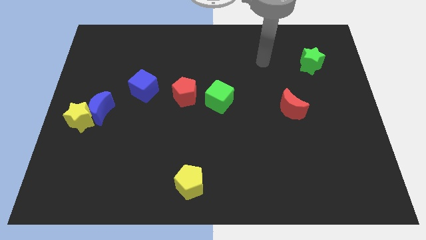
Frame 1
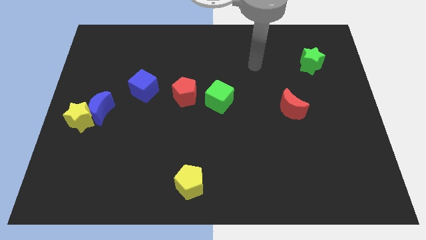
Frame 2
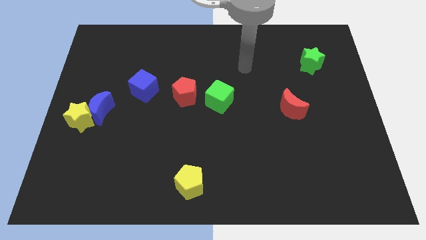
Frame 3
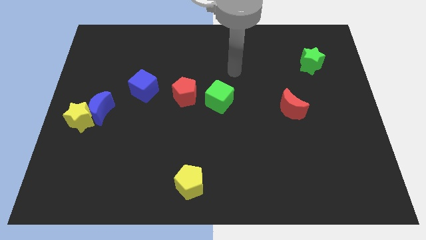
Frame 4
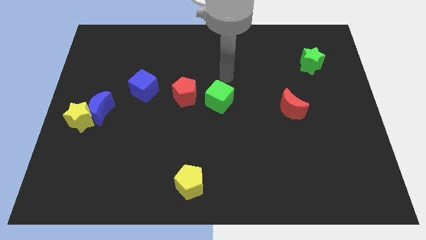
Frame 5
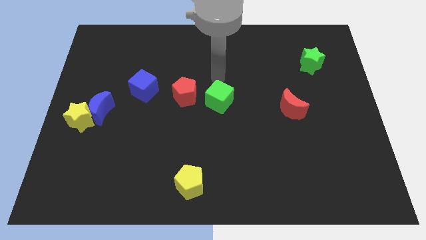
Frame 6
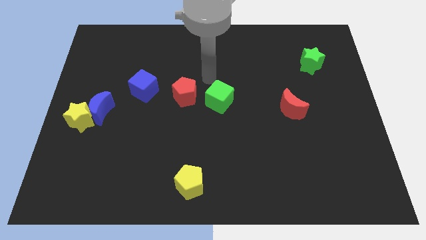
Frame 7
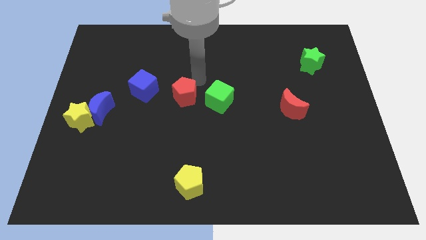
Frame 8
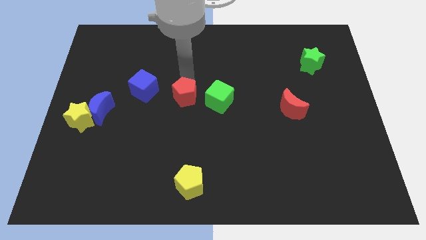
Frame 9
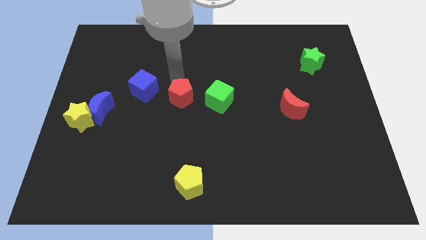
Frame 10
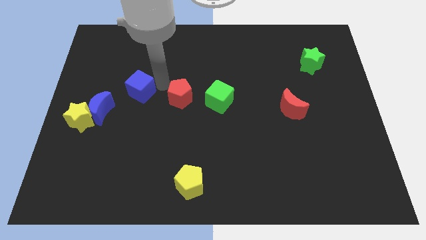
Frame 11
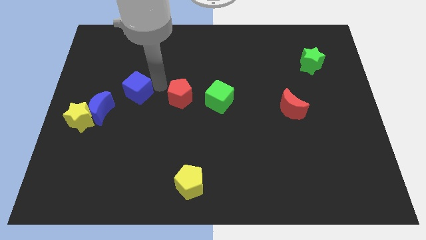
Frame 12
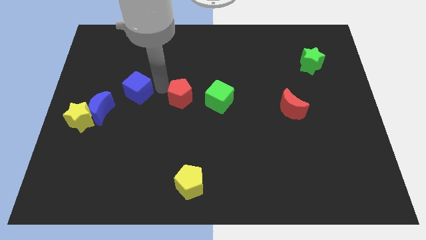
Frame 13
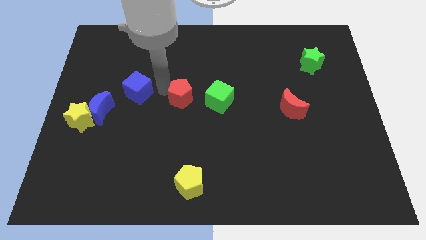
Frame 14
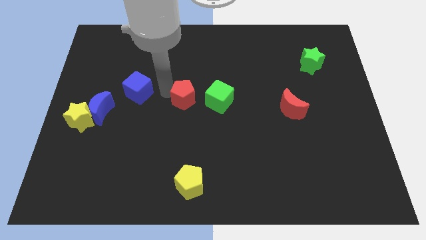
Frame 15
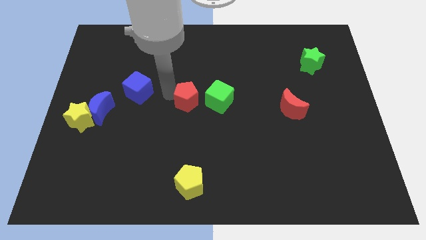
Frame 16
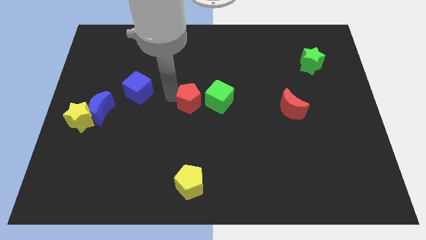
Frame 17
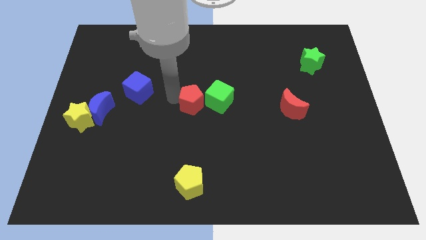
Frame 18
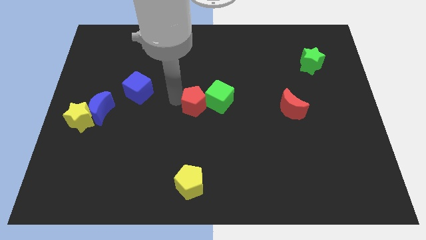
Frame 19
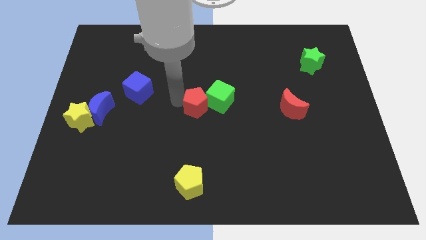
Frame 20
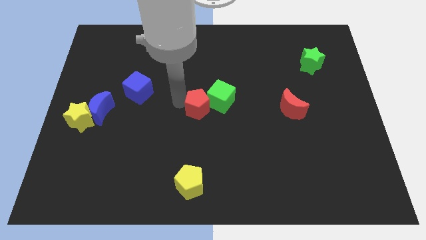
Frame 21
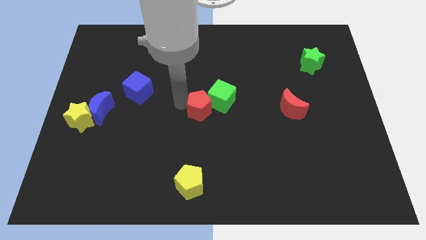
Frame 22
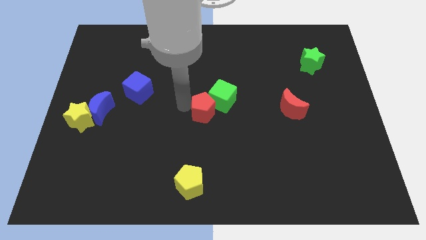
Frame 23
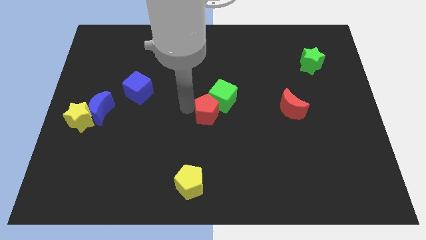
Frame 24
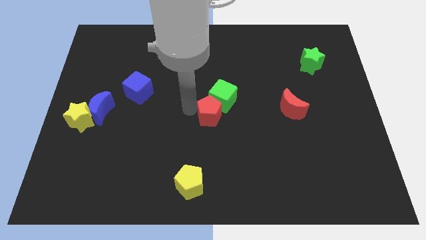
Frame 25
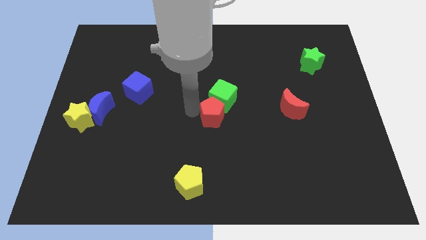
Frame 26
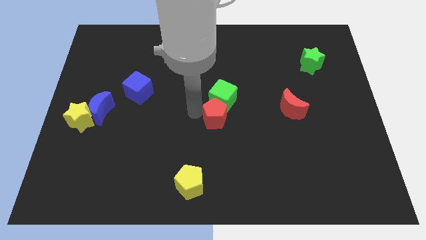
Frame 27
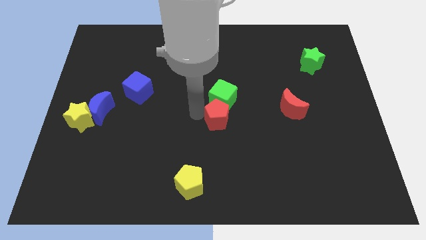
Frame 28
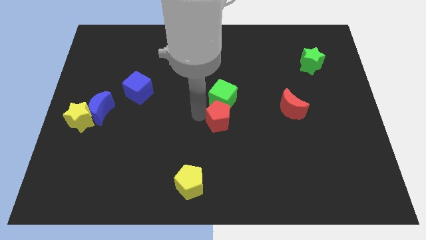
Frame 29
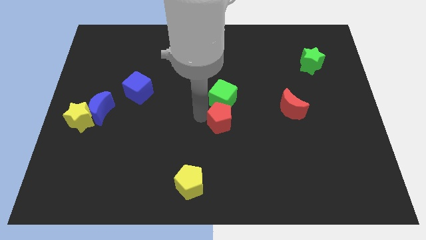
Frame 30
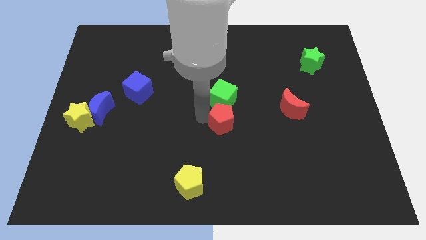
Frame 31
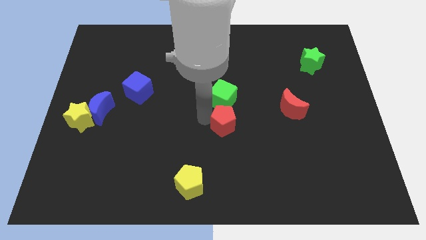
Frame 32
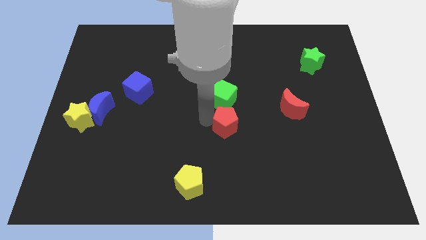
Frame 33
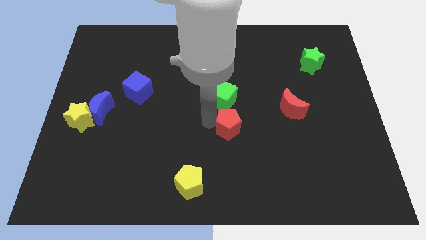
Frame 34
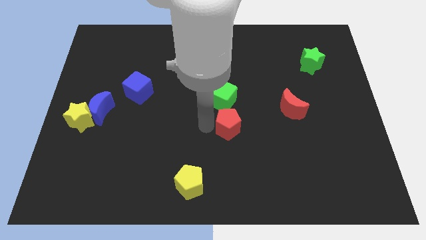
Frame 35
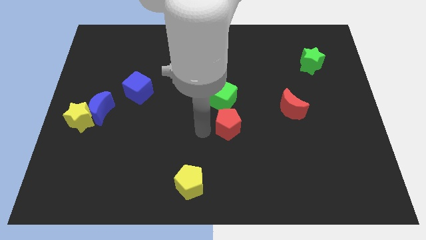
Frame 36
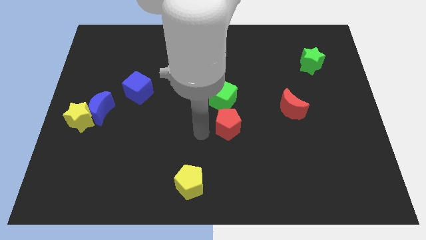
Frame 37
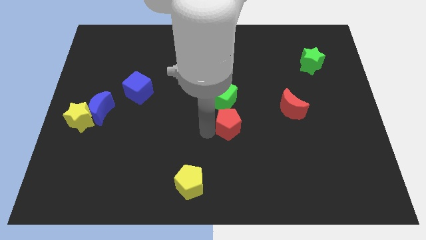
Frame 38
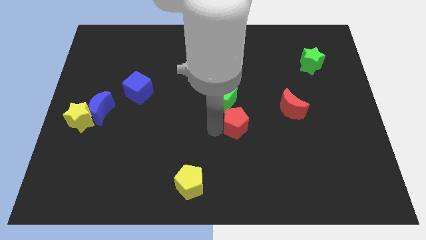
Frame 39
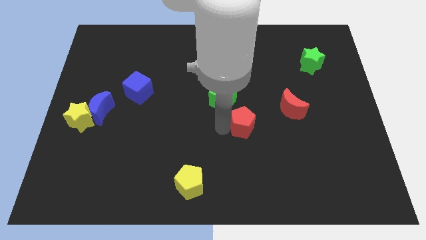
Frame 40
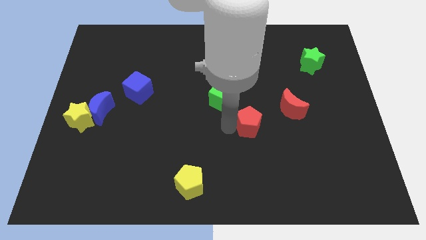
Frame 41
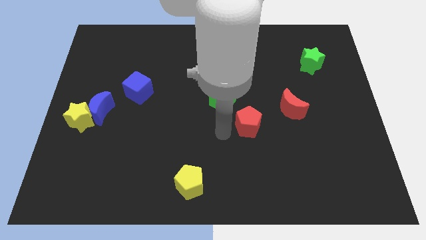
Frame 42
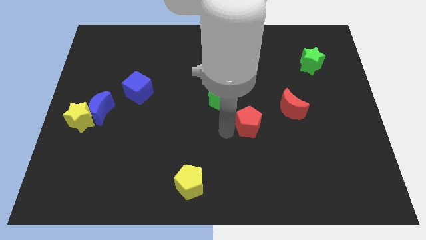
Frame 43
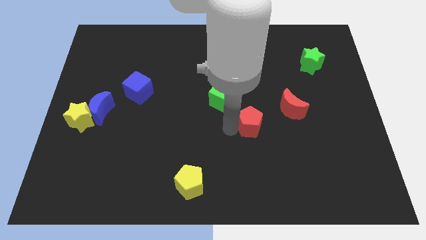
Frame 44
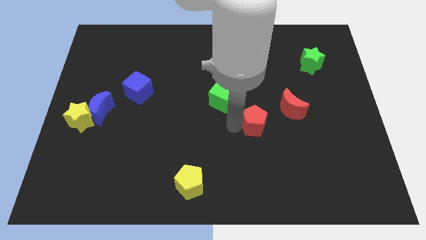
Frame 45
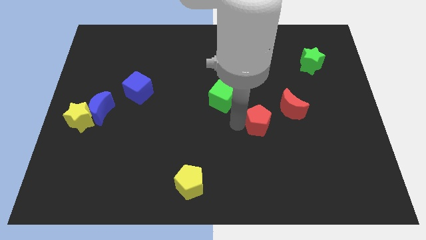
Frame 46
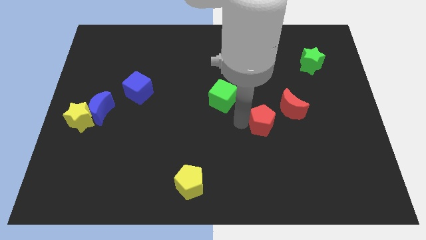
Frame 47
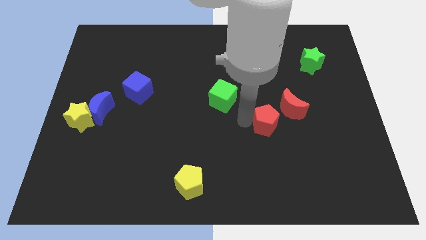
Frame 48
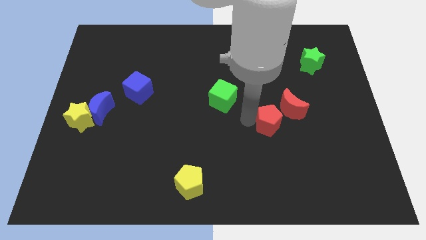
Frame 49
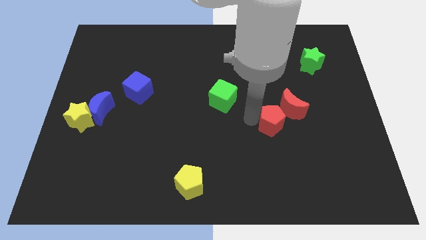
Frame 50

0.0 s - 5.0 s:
move the red pentagon next to the red moon

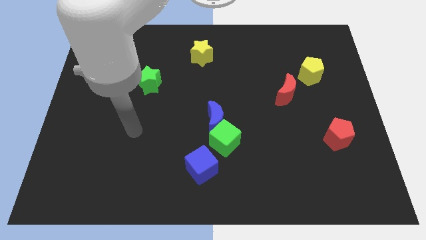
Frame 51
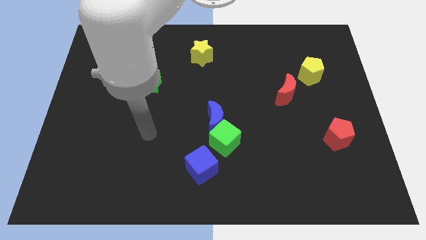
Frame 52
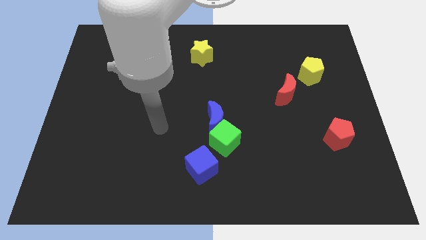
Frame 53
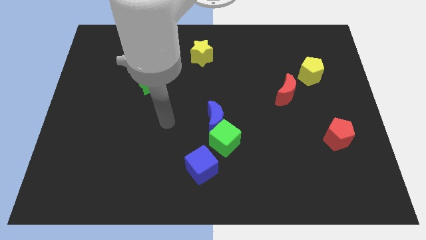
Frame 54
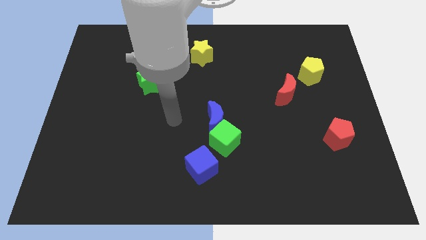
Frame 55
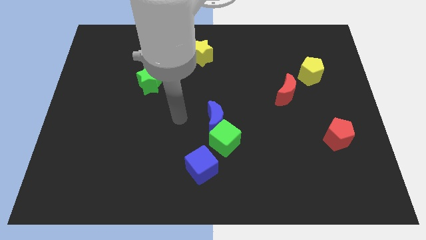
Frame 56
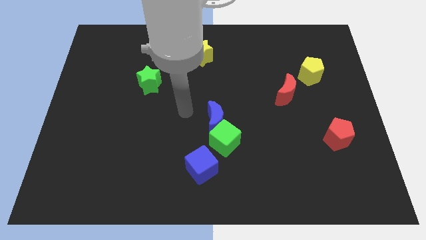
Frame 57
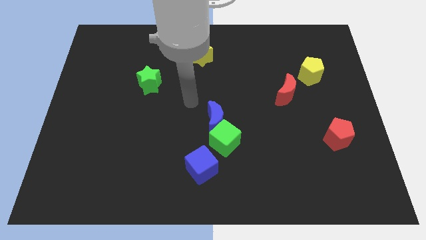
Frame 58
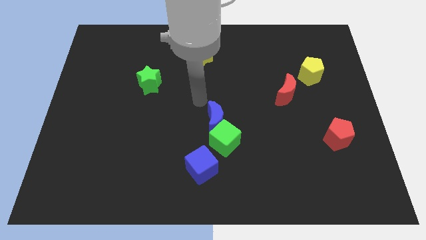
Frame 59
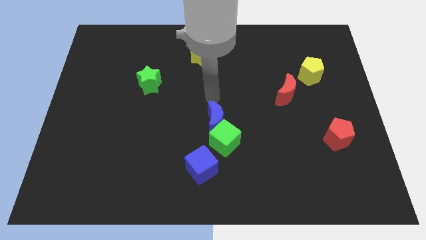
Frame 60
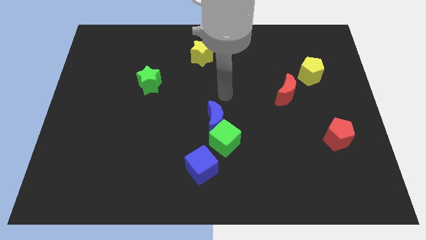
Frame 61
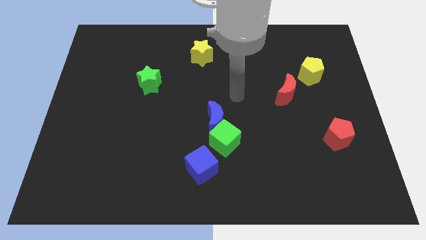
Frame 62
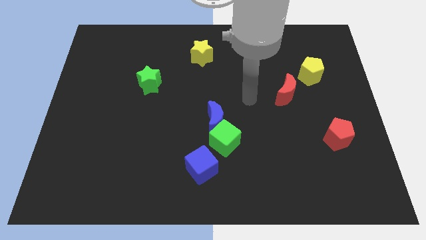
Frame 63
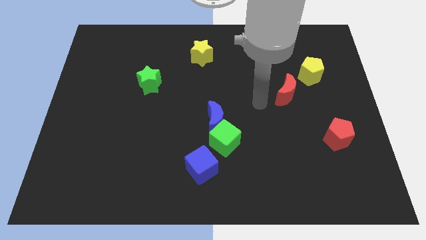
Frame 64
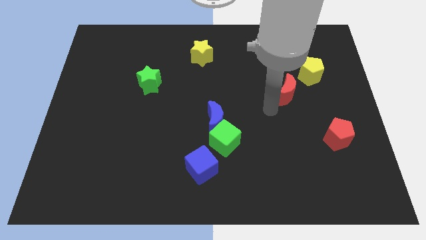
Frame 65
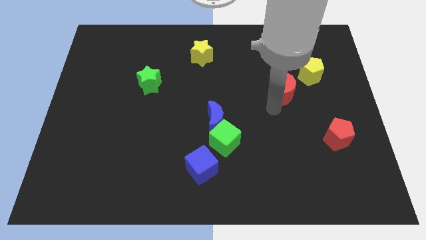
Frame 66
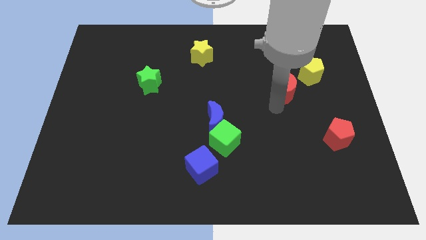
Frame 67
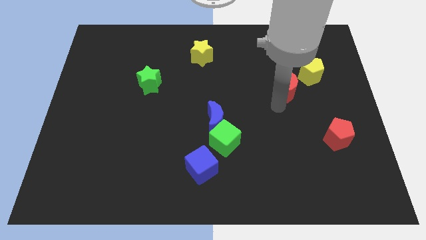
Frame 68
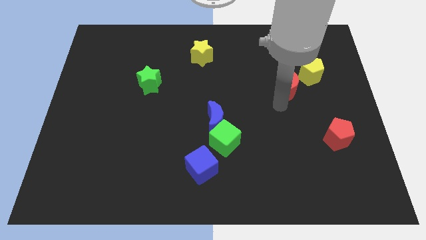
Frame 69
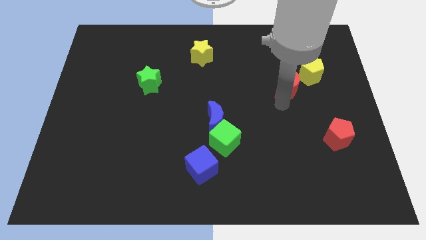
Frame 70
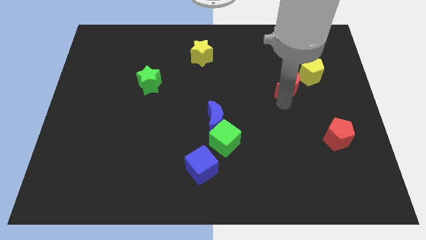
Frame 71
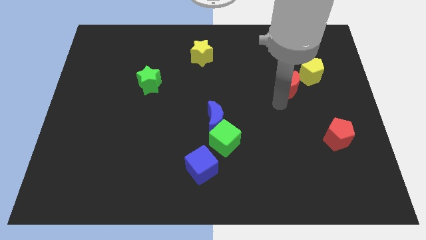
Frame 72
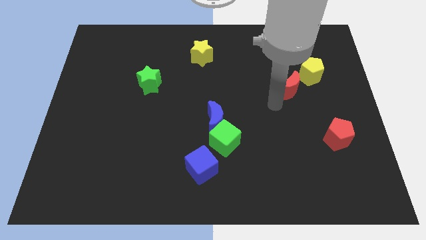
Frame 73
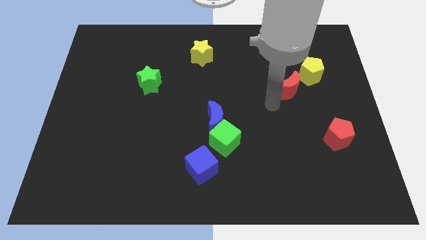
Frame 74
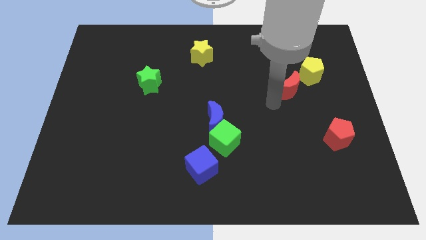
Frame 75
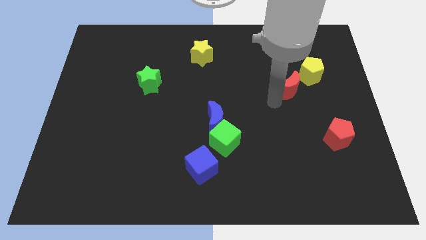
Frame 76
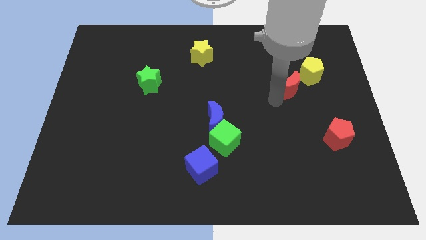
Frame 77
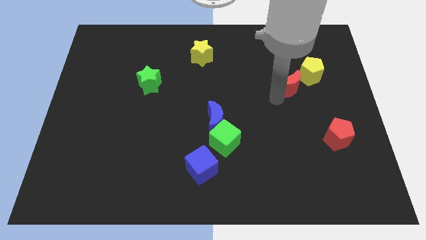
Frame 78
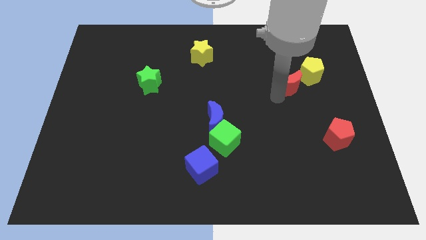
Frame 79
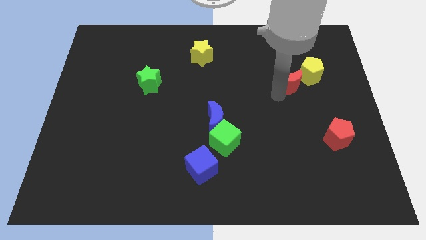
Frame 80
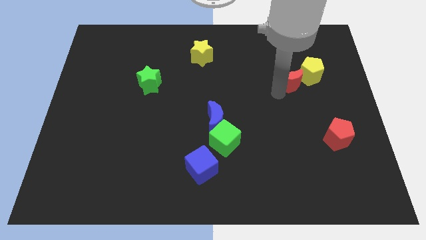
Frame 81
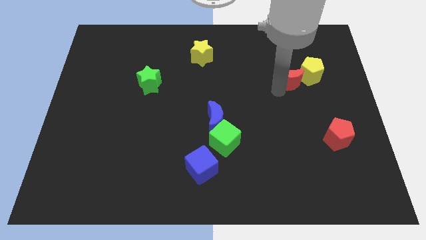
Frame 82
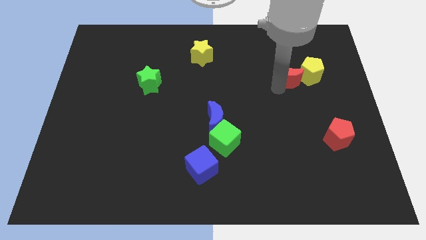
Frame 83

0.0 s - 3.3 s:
put the red moon towards the yellow pentagon
